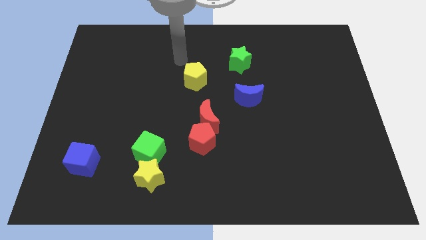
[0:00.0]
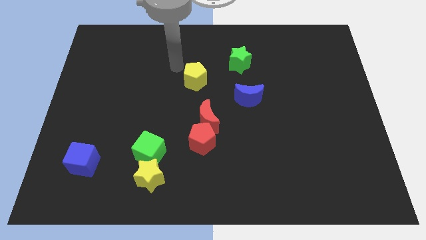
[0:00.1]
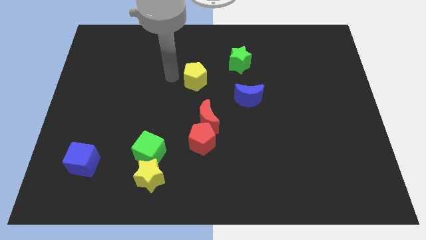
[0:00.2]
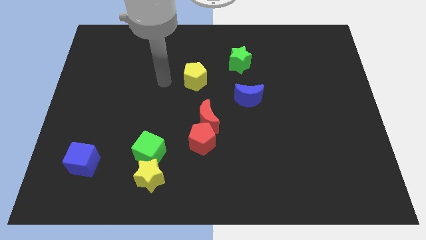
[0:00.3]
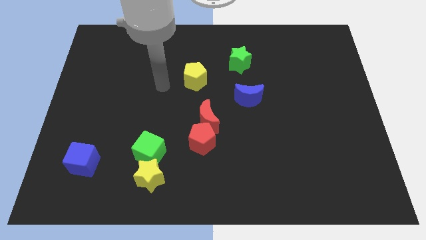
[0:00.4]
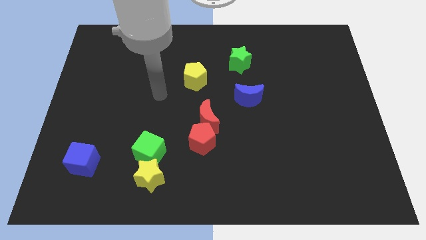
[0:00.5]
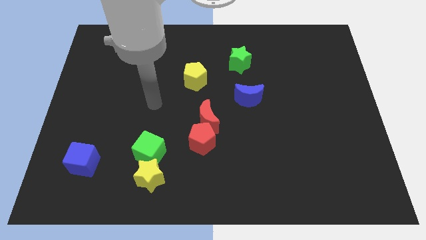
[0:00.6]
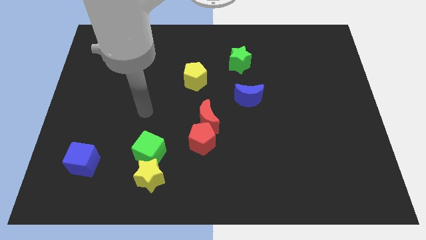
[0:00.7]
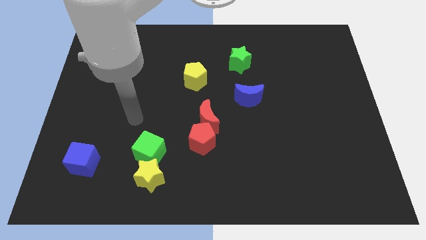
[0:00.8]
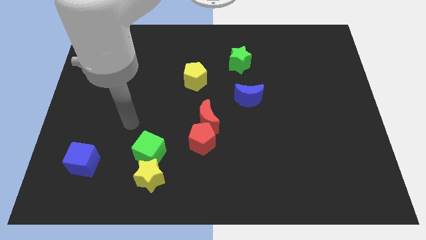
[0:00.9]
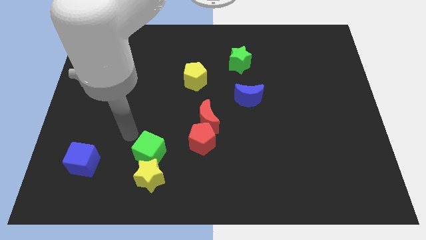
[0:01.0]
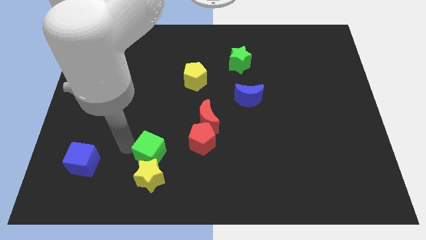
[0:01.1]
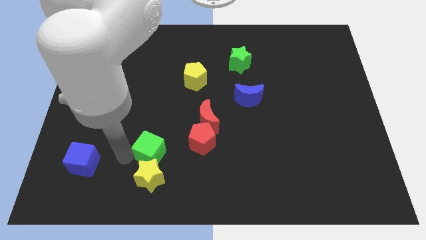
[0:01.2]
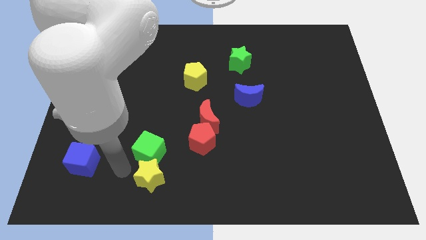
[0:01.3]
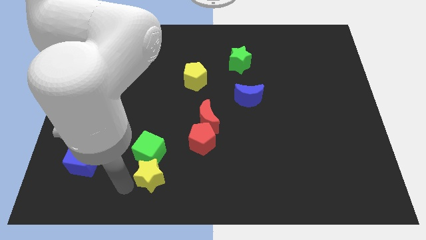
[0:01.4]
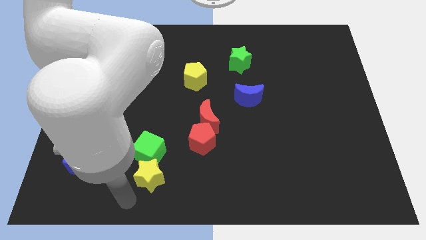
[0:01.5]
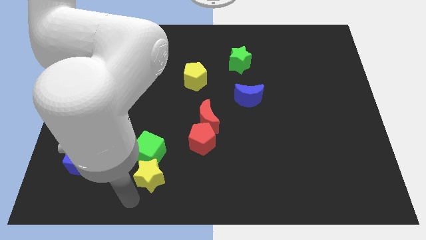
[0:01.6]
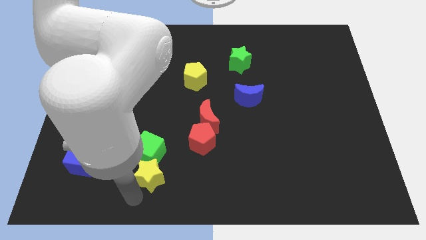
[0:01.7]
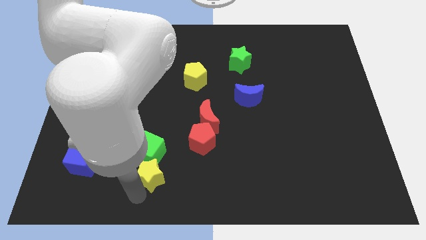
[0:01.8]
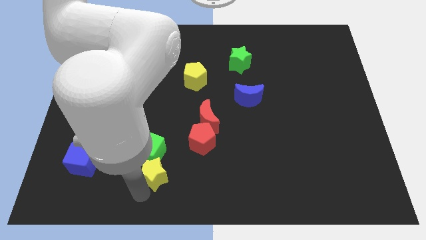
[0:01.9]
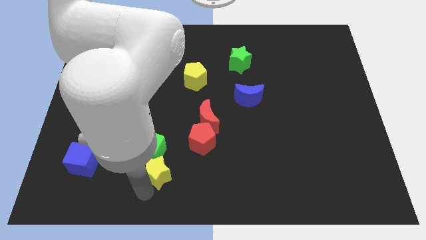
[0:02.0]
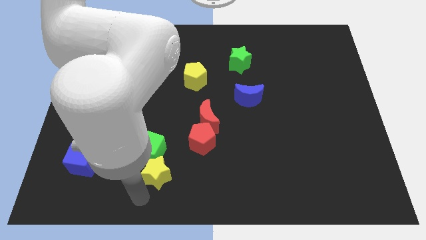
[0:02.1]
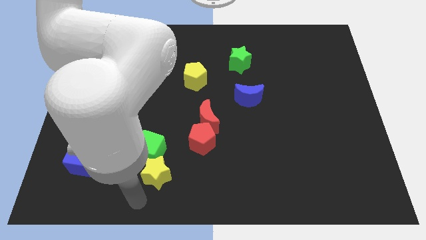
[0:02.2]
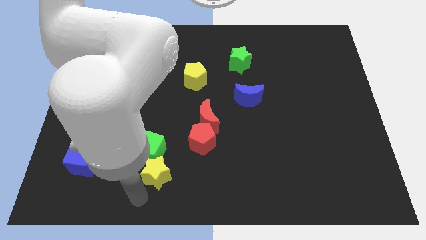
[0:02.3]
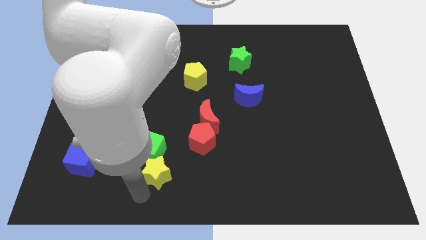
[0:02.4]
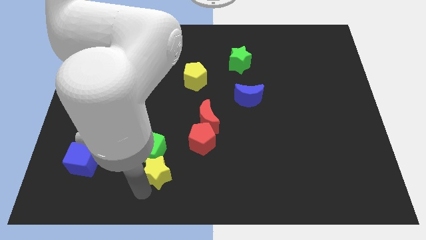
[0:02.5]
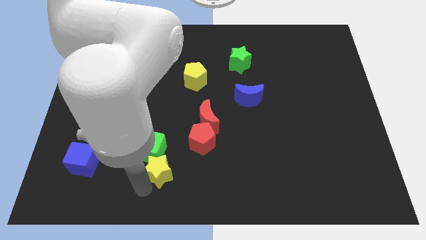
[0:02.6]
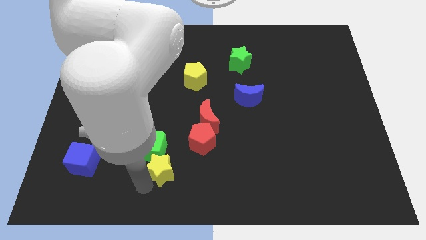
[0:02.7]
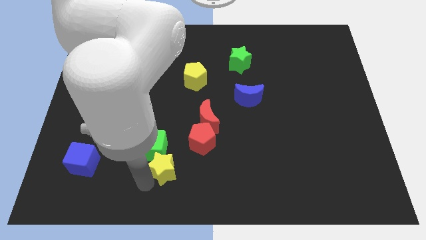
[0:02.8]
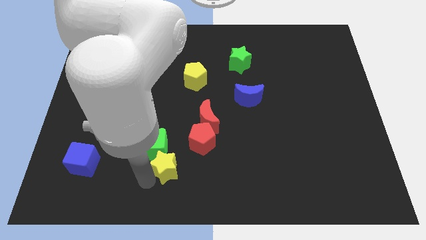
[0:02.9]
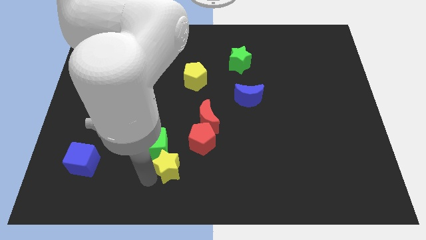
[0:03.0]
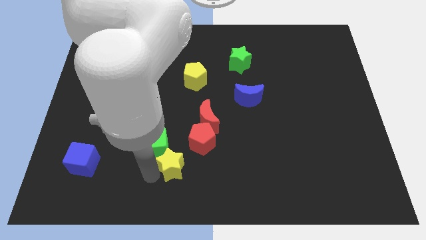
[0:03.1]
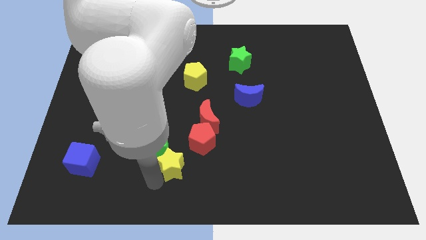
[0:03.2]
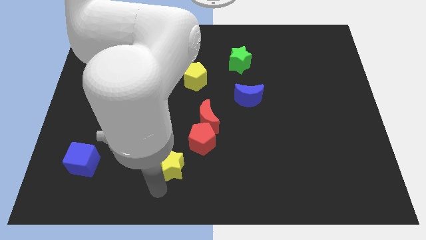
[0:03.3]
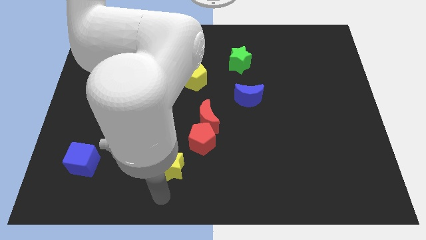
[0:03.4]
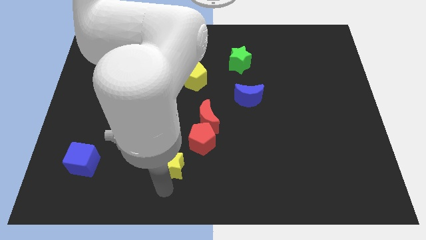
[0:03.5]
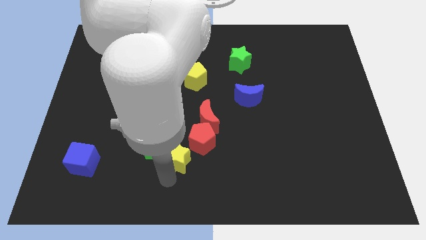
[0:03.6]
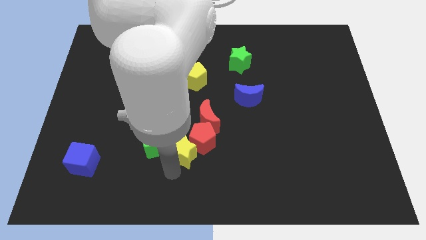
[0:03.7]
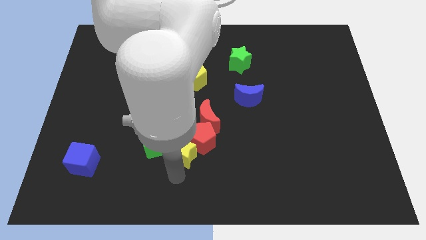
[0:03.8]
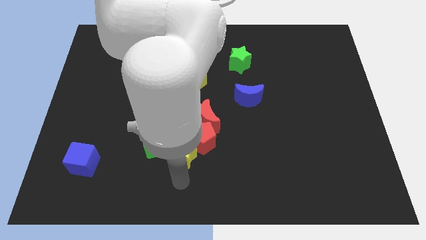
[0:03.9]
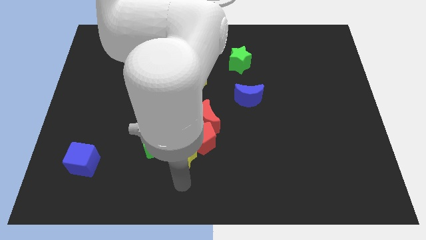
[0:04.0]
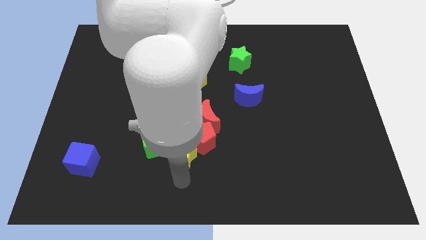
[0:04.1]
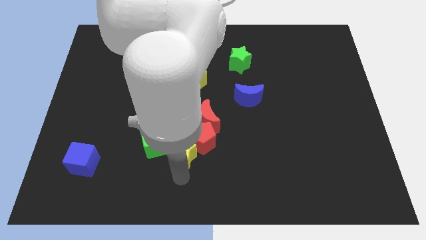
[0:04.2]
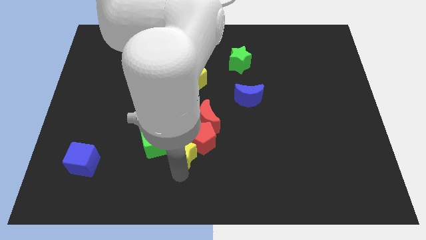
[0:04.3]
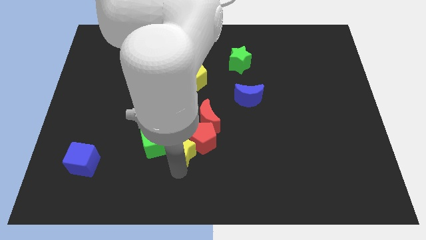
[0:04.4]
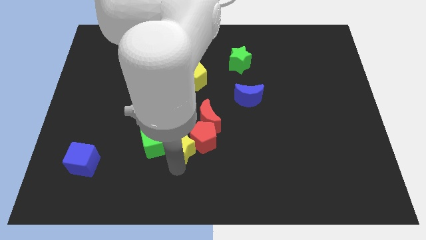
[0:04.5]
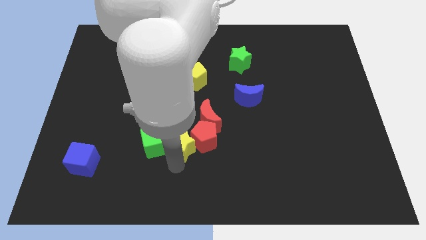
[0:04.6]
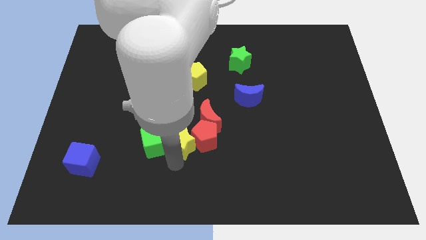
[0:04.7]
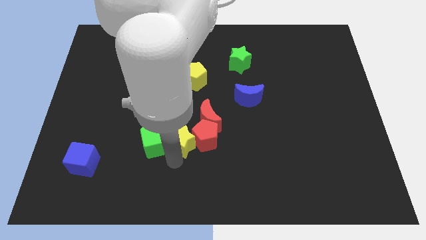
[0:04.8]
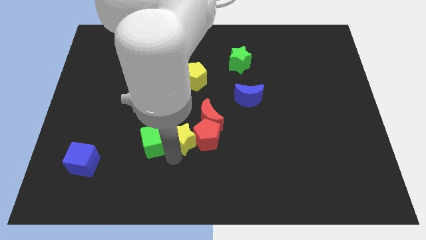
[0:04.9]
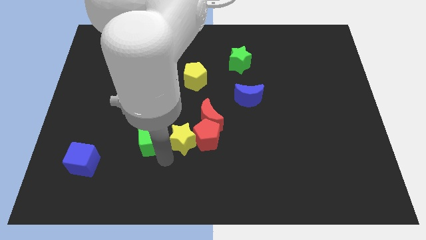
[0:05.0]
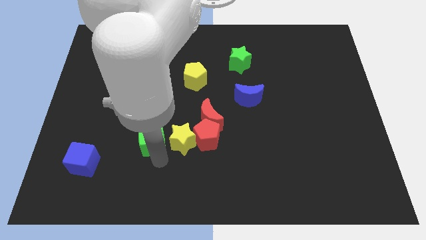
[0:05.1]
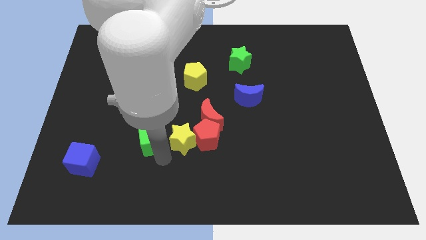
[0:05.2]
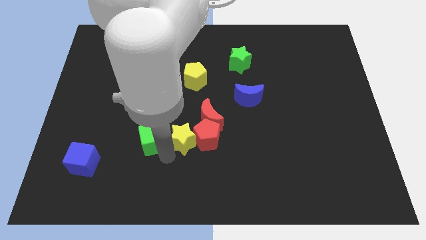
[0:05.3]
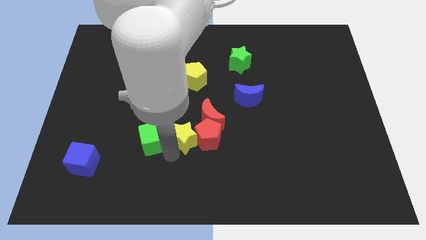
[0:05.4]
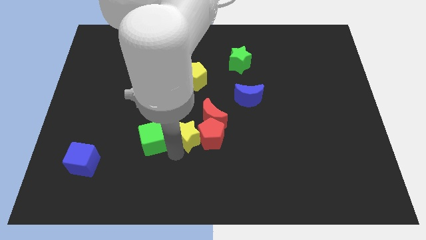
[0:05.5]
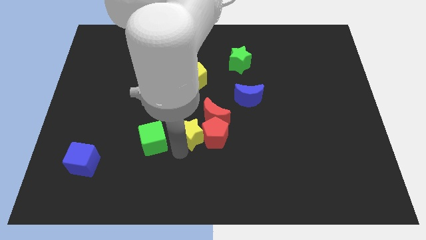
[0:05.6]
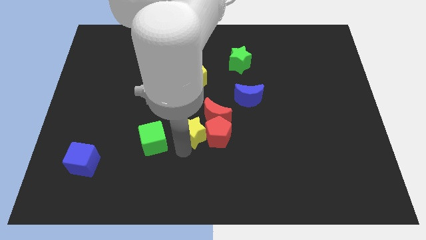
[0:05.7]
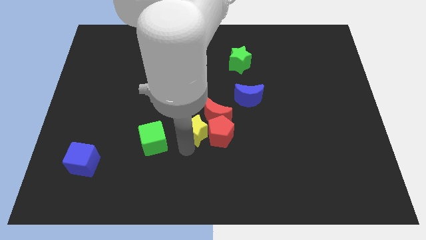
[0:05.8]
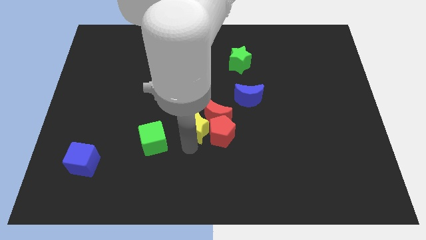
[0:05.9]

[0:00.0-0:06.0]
move the yellow star close to the red moon

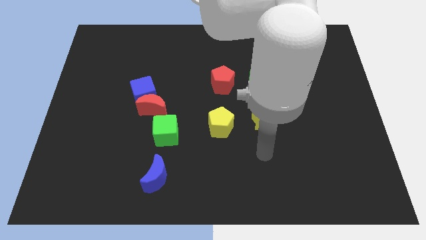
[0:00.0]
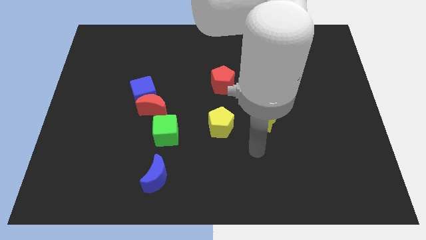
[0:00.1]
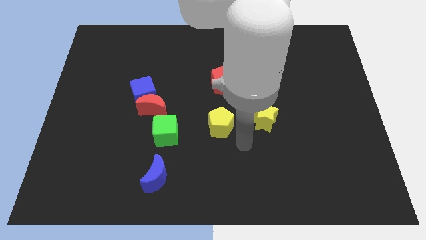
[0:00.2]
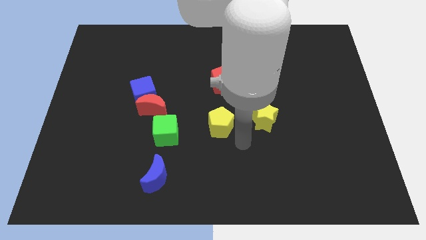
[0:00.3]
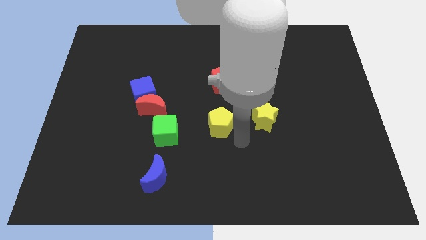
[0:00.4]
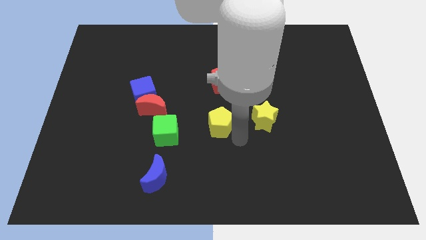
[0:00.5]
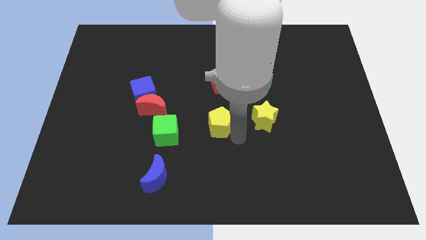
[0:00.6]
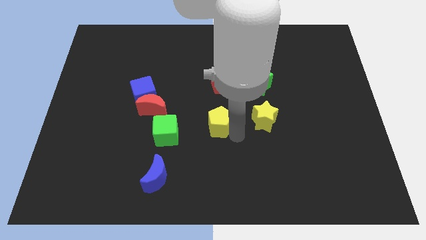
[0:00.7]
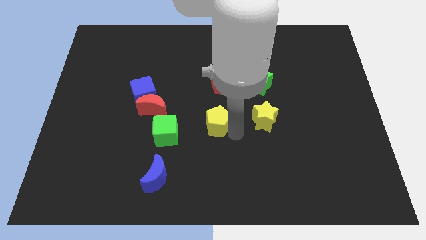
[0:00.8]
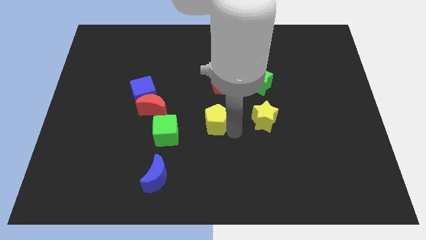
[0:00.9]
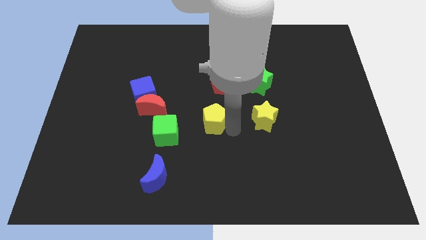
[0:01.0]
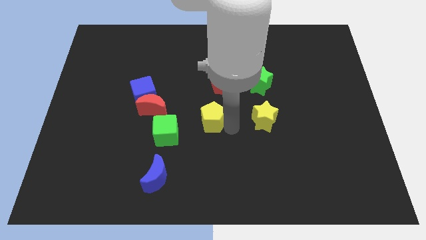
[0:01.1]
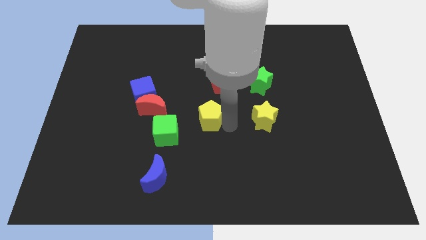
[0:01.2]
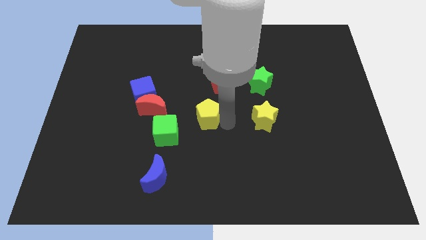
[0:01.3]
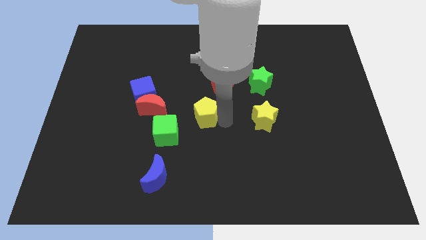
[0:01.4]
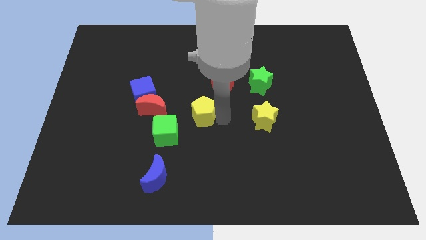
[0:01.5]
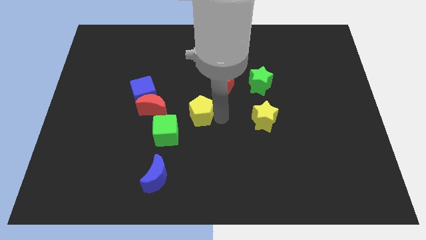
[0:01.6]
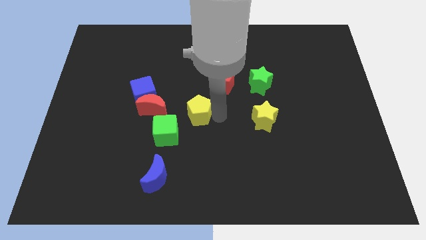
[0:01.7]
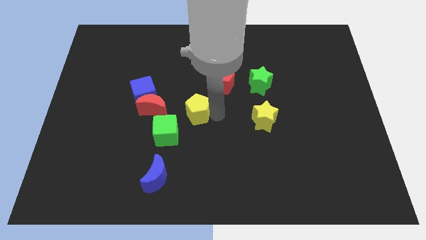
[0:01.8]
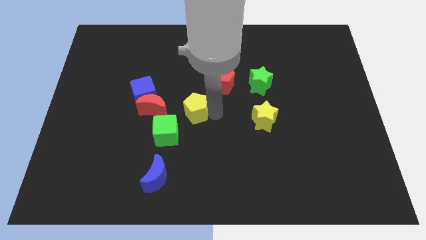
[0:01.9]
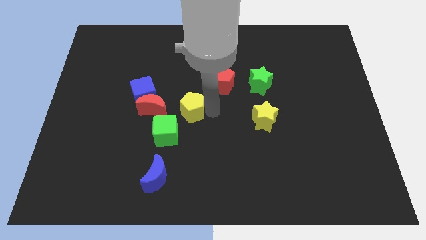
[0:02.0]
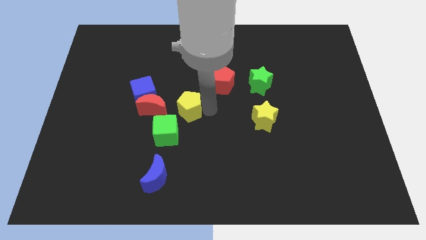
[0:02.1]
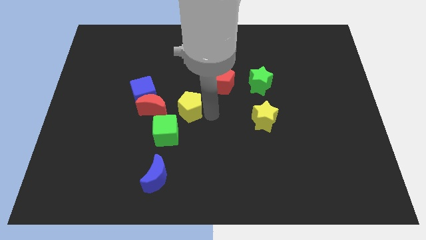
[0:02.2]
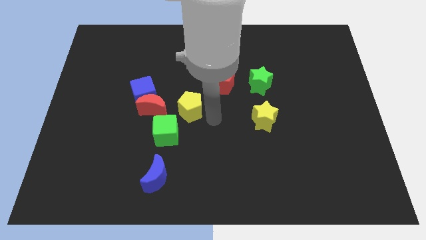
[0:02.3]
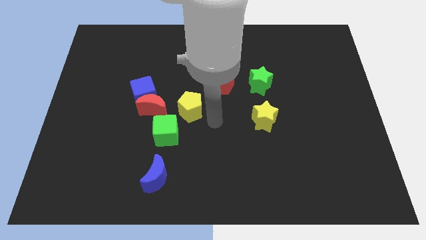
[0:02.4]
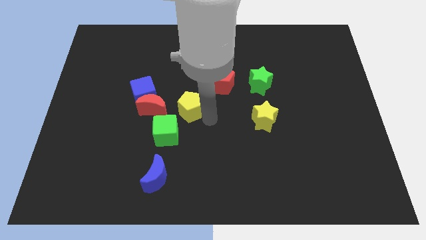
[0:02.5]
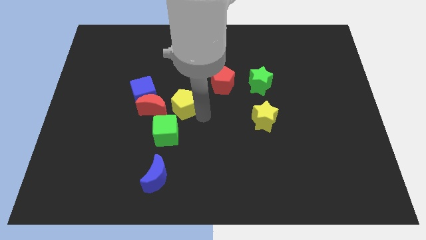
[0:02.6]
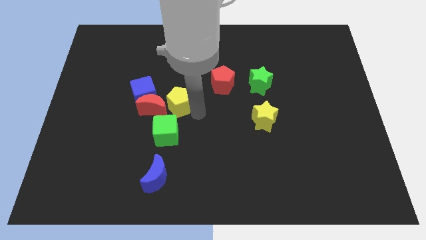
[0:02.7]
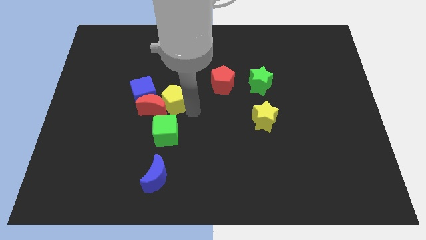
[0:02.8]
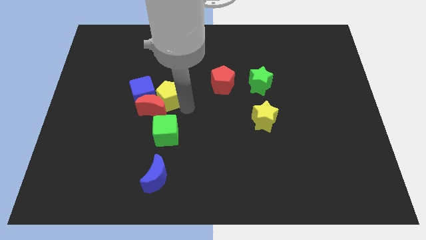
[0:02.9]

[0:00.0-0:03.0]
push the yellow pentagon towards the blue cube
